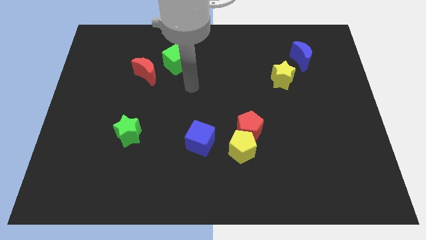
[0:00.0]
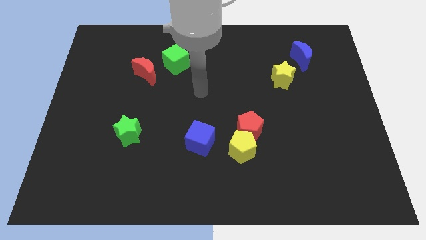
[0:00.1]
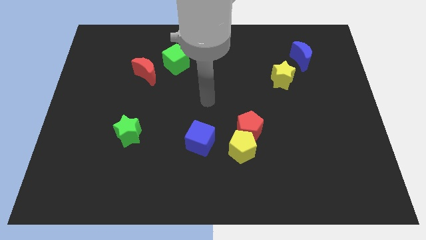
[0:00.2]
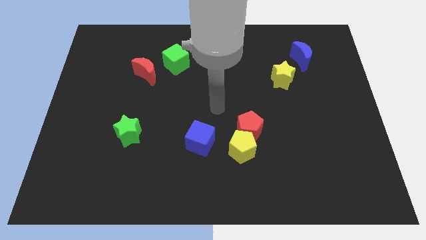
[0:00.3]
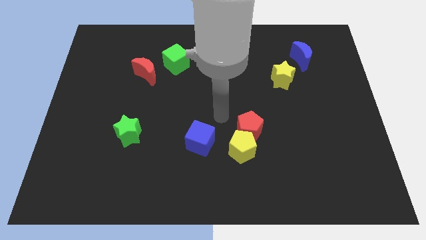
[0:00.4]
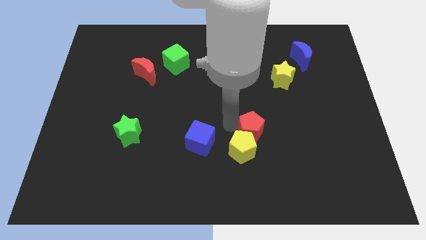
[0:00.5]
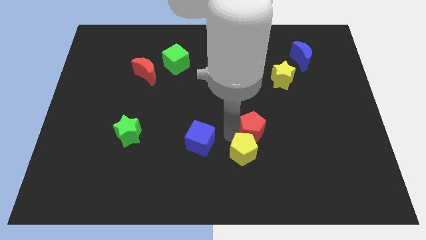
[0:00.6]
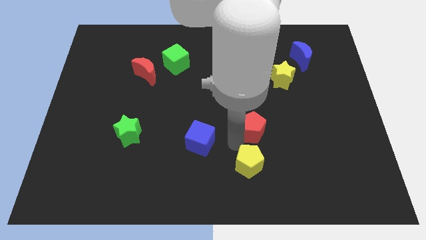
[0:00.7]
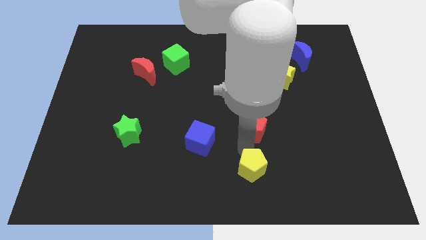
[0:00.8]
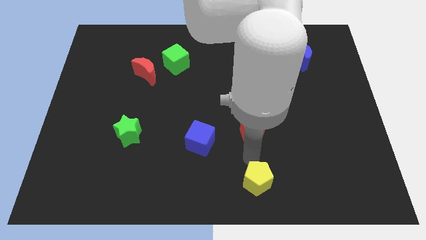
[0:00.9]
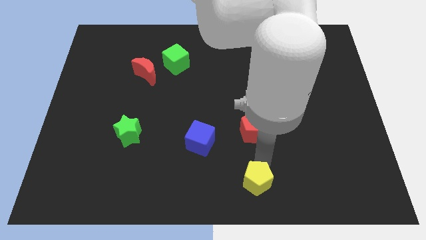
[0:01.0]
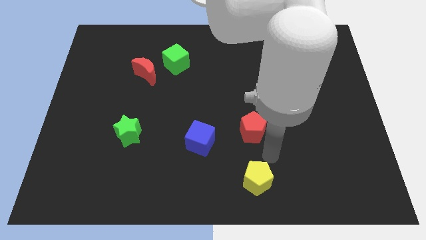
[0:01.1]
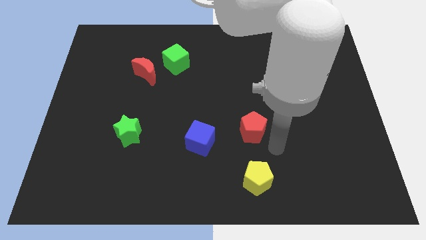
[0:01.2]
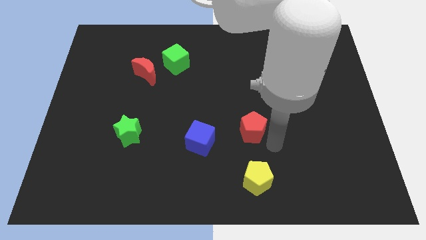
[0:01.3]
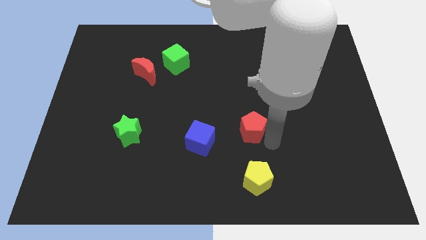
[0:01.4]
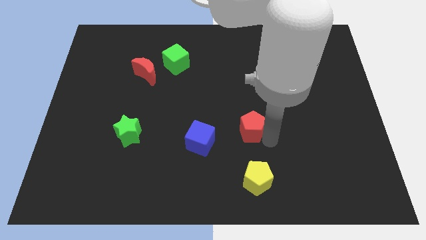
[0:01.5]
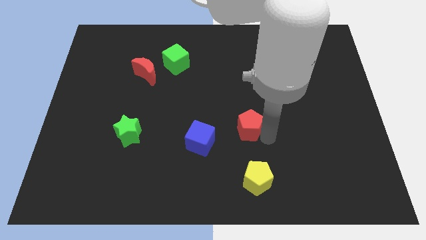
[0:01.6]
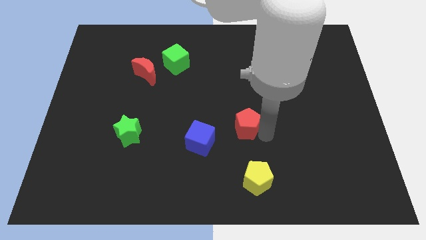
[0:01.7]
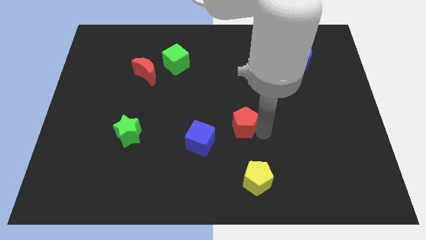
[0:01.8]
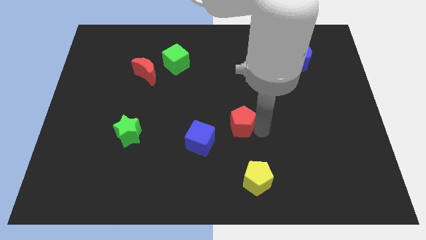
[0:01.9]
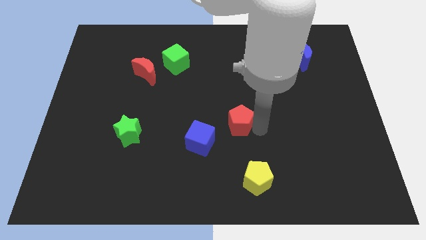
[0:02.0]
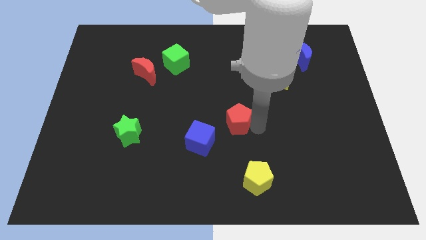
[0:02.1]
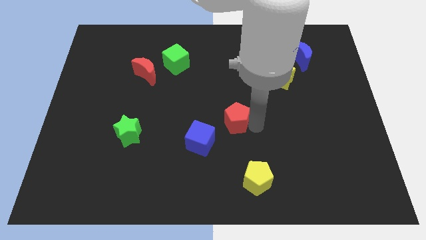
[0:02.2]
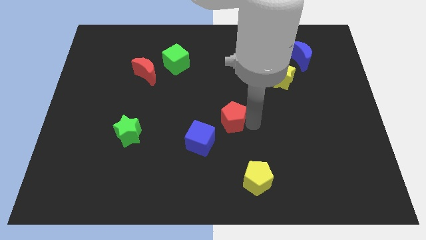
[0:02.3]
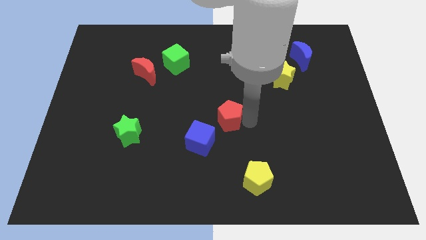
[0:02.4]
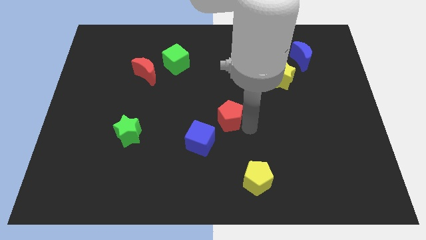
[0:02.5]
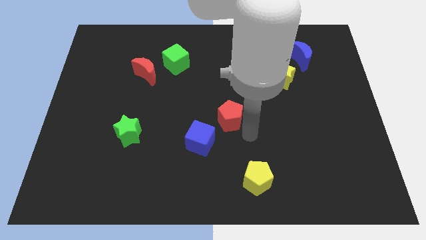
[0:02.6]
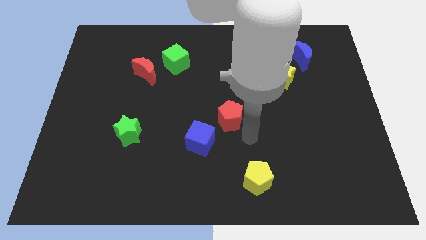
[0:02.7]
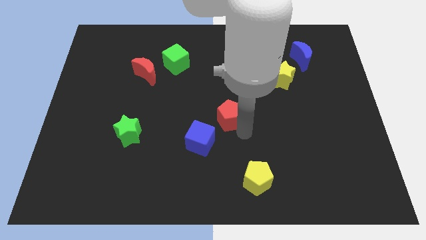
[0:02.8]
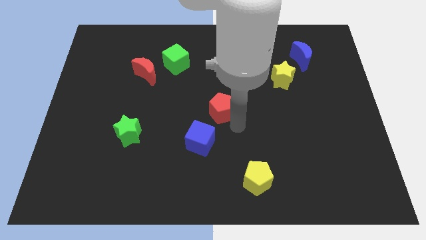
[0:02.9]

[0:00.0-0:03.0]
slide the red pentagon a little upwards and then left

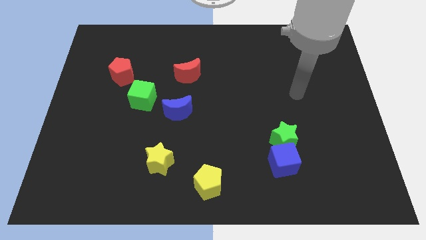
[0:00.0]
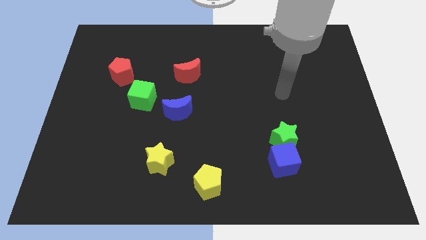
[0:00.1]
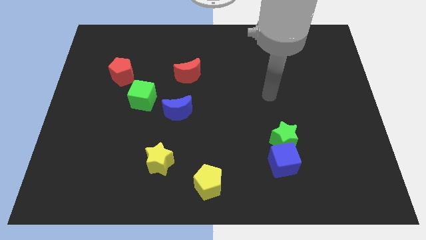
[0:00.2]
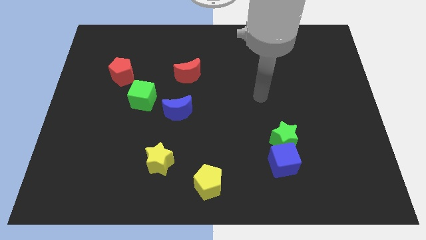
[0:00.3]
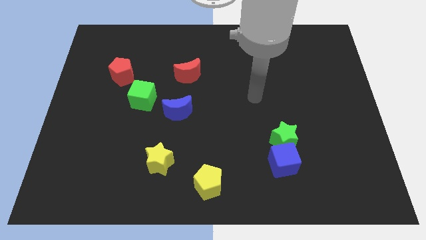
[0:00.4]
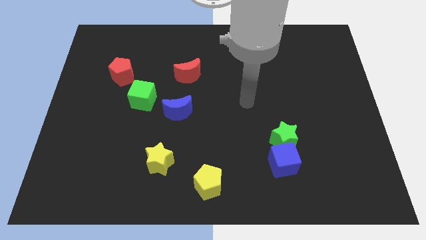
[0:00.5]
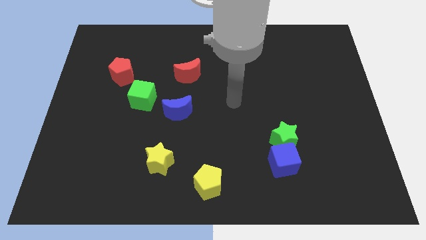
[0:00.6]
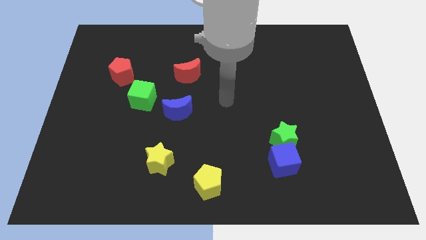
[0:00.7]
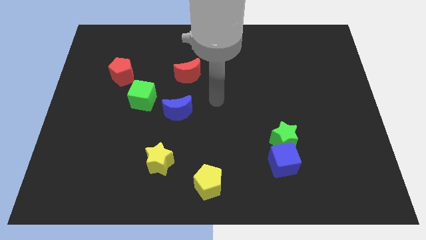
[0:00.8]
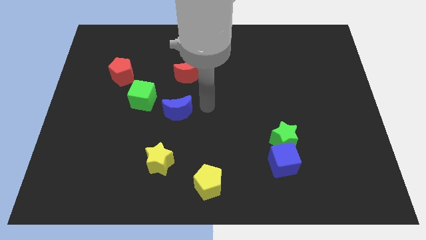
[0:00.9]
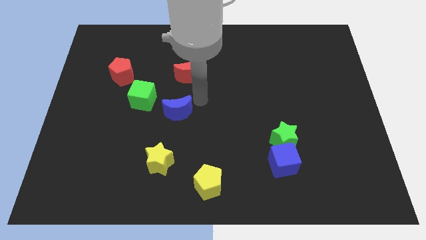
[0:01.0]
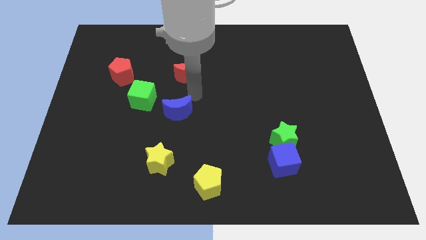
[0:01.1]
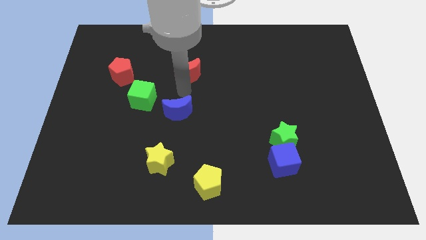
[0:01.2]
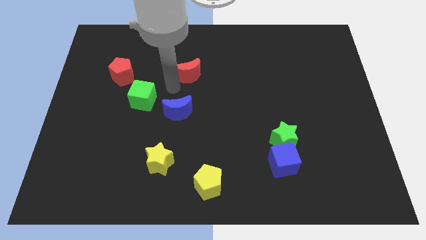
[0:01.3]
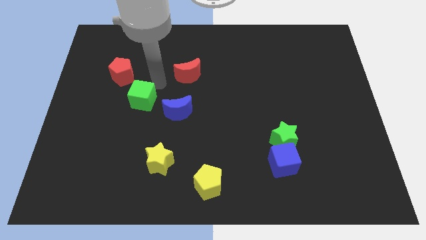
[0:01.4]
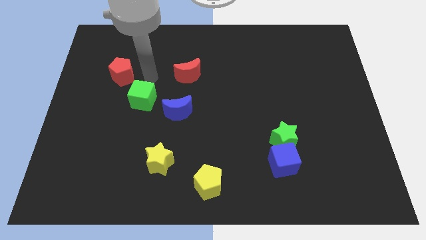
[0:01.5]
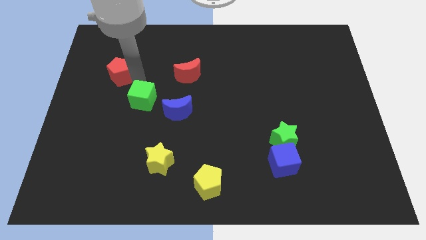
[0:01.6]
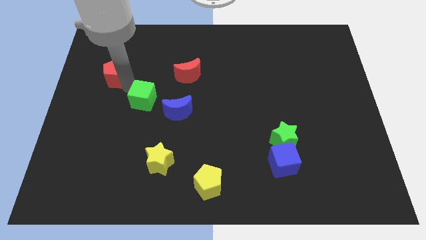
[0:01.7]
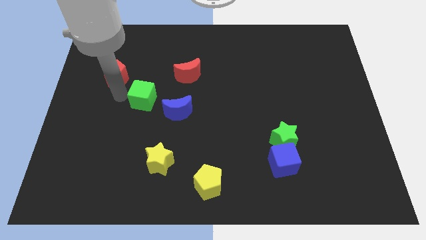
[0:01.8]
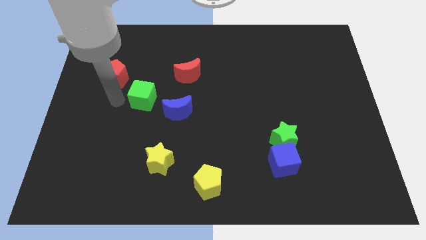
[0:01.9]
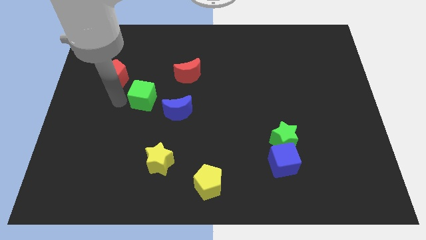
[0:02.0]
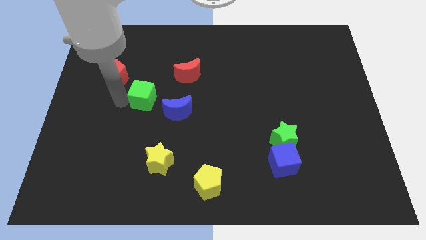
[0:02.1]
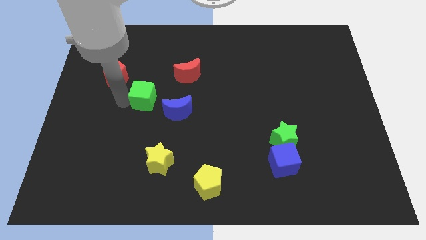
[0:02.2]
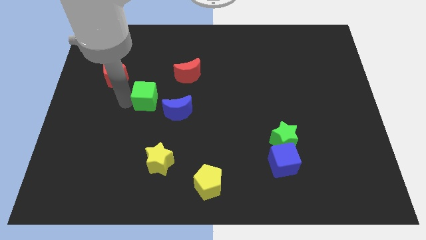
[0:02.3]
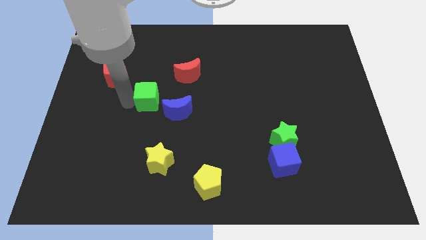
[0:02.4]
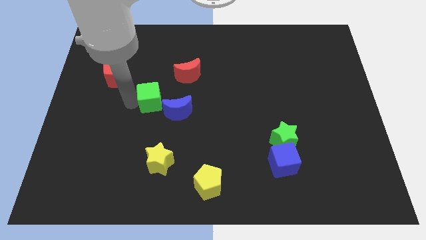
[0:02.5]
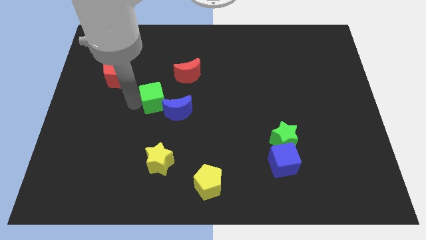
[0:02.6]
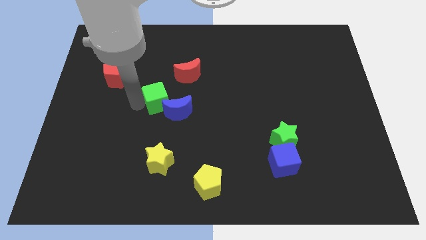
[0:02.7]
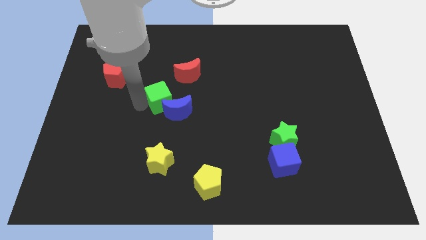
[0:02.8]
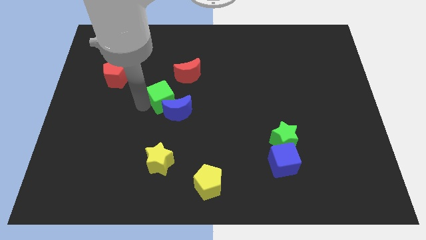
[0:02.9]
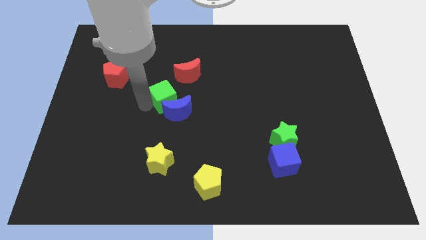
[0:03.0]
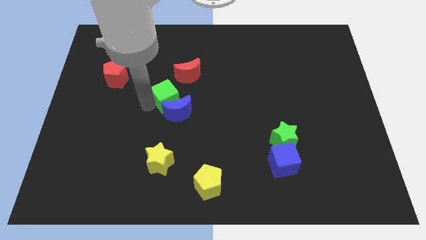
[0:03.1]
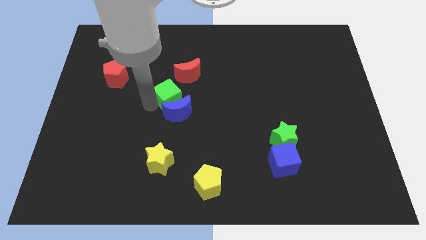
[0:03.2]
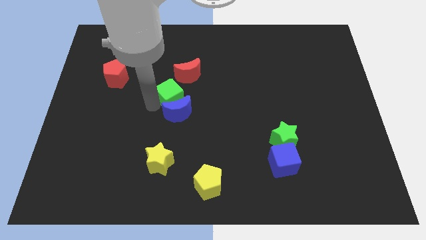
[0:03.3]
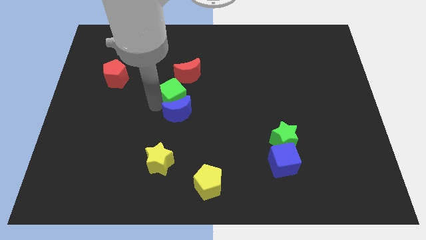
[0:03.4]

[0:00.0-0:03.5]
move the green cube a little to the right

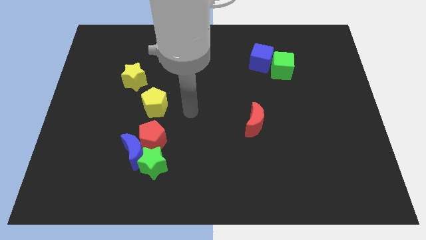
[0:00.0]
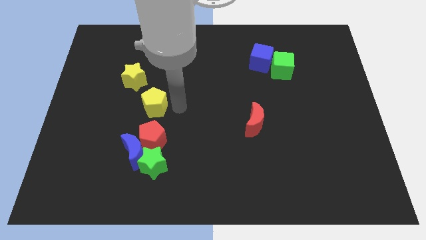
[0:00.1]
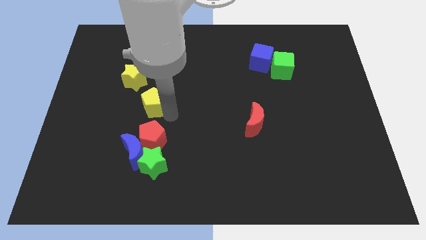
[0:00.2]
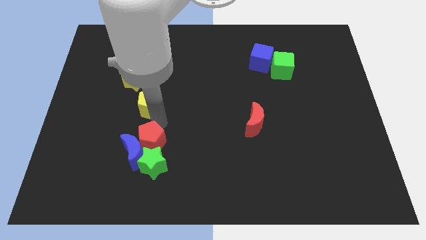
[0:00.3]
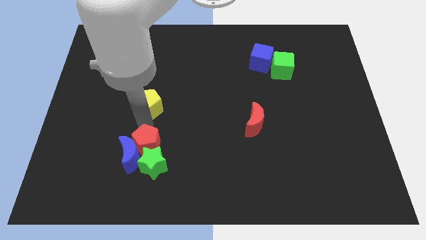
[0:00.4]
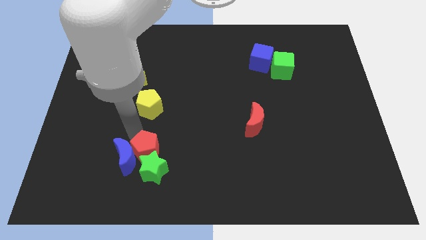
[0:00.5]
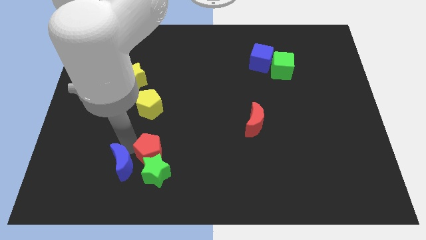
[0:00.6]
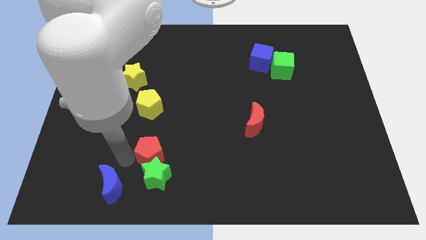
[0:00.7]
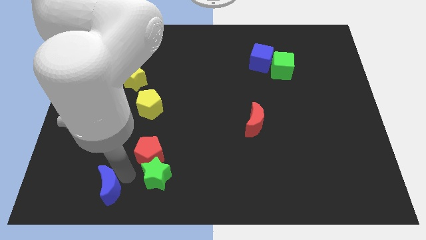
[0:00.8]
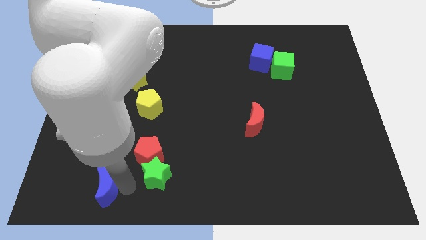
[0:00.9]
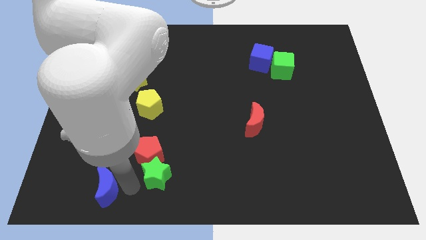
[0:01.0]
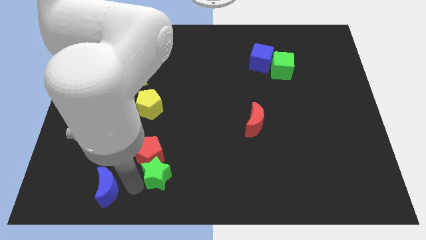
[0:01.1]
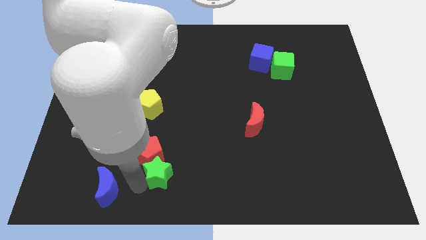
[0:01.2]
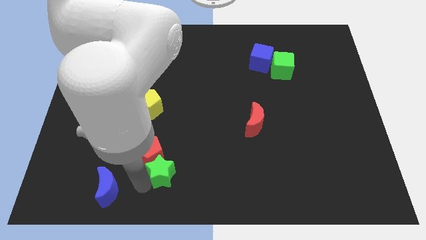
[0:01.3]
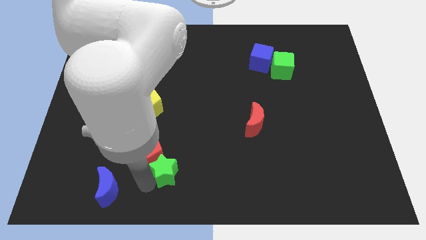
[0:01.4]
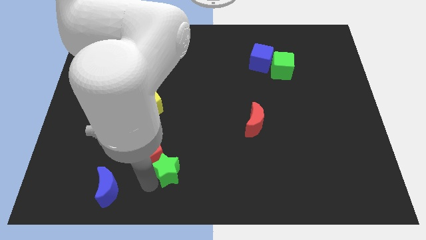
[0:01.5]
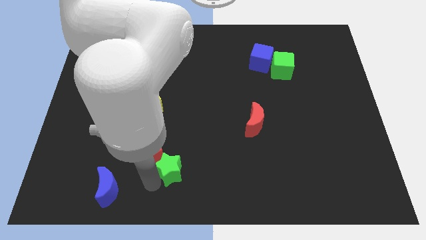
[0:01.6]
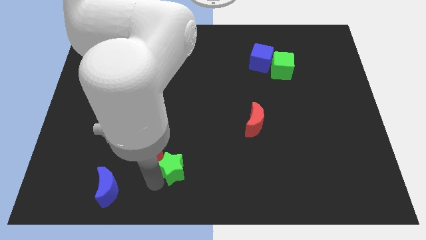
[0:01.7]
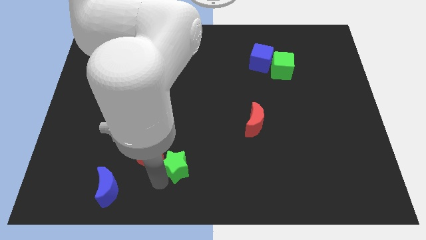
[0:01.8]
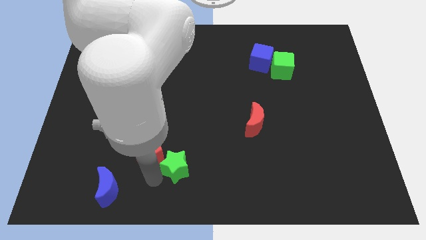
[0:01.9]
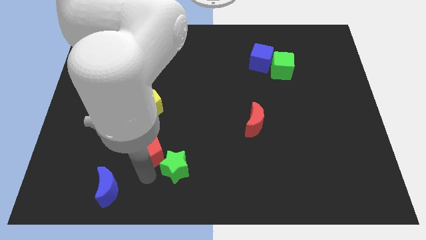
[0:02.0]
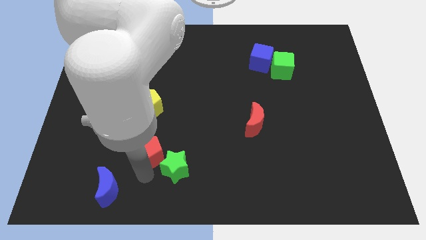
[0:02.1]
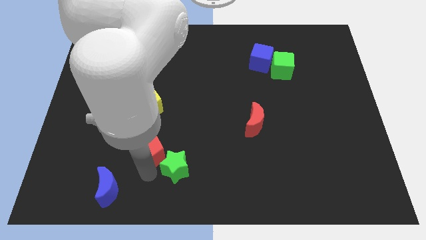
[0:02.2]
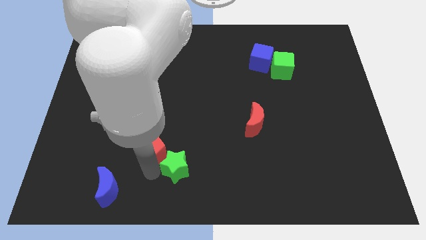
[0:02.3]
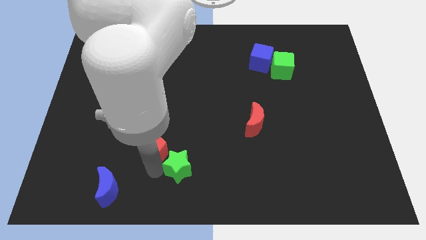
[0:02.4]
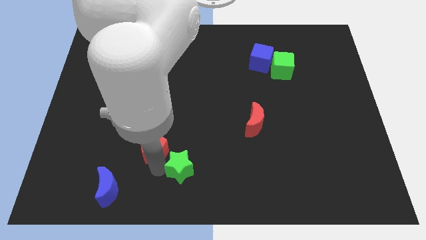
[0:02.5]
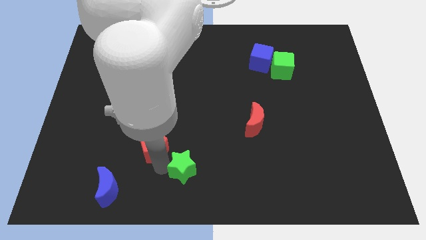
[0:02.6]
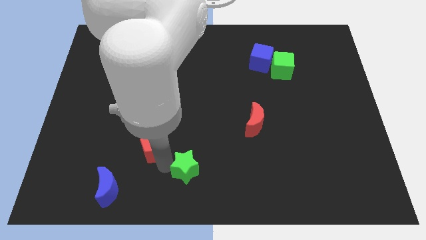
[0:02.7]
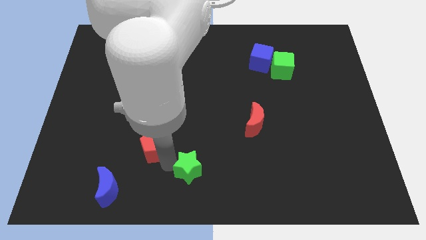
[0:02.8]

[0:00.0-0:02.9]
move the green star to the right a little
